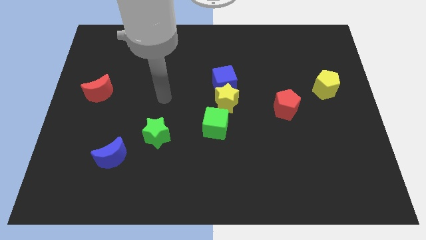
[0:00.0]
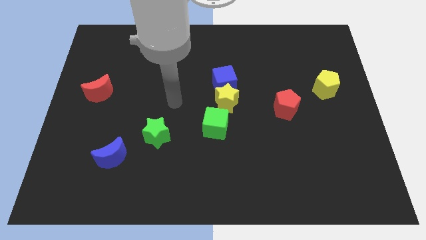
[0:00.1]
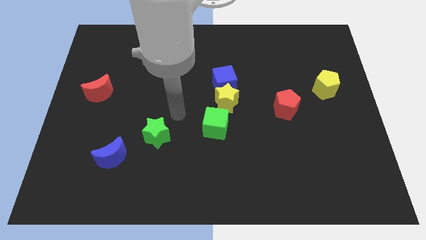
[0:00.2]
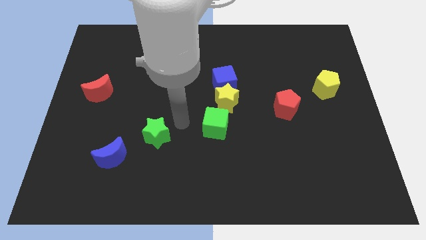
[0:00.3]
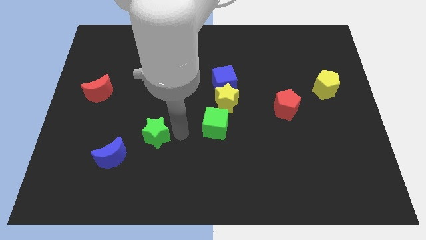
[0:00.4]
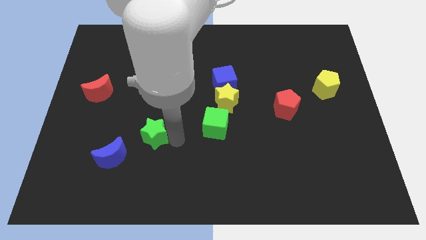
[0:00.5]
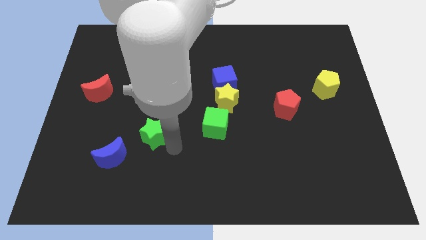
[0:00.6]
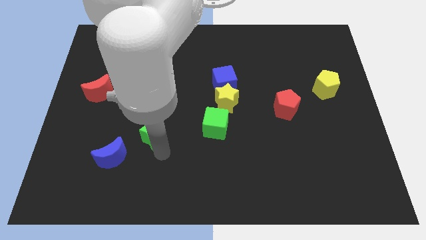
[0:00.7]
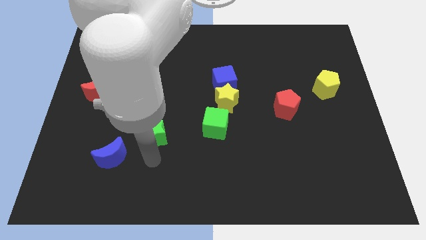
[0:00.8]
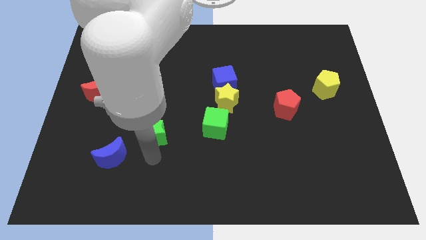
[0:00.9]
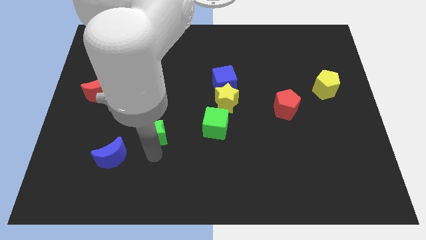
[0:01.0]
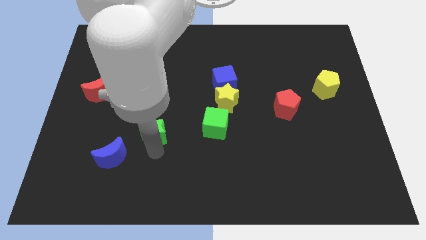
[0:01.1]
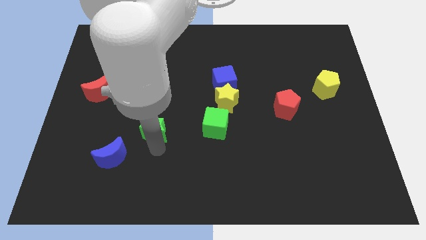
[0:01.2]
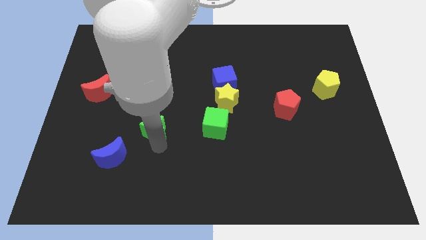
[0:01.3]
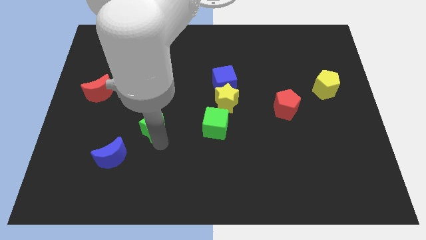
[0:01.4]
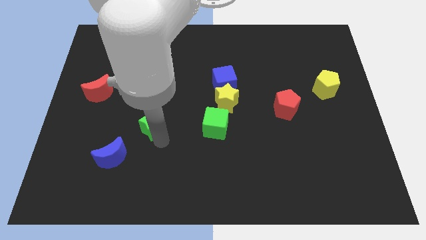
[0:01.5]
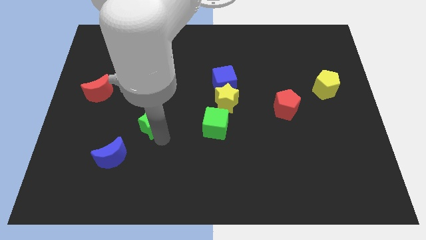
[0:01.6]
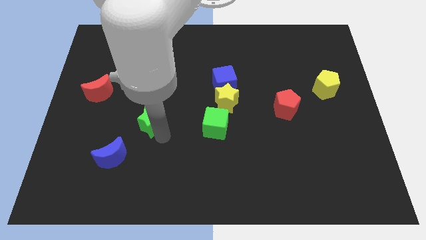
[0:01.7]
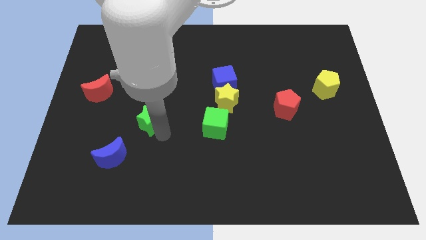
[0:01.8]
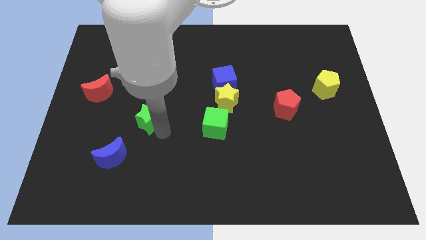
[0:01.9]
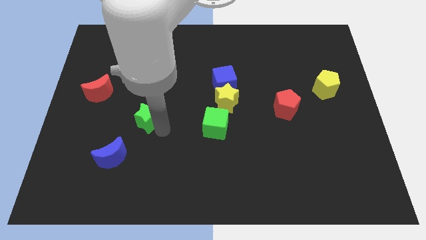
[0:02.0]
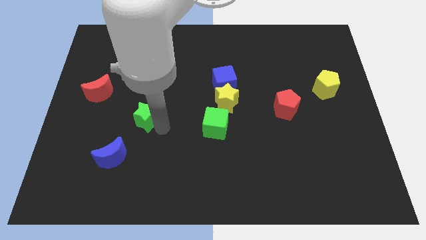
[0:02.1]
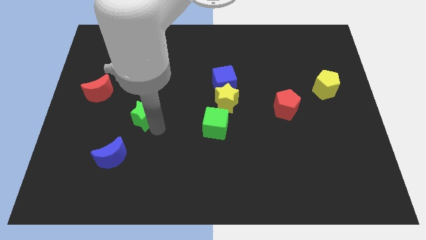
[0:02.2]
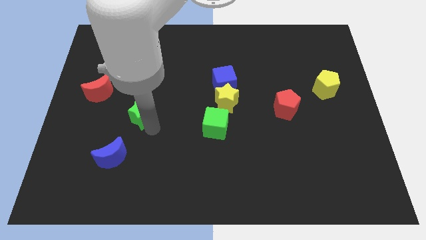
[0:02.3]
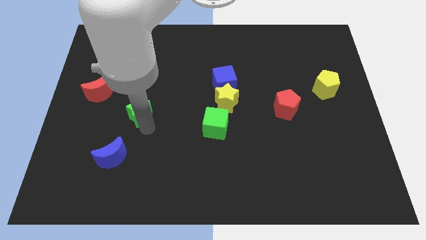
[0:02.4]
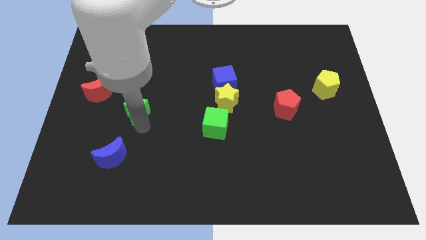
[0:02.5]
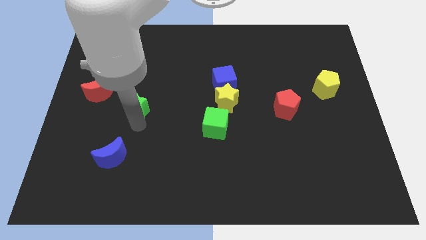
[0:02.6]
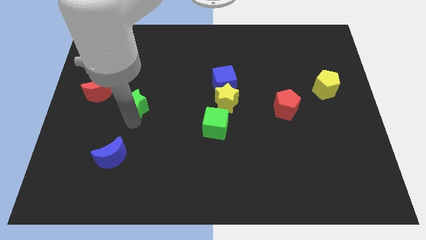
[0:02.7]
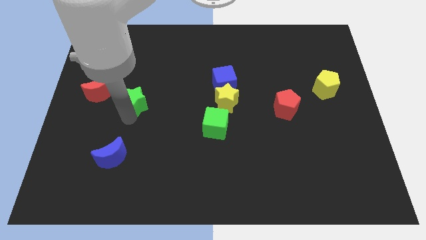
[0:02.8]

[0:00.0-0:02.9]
slide the green star up a little bit

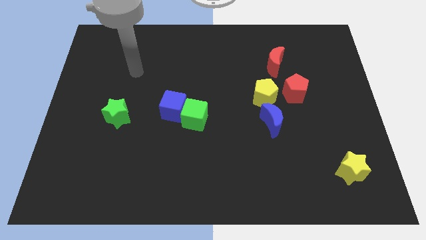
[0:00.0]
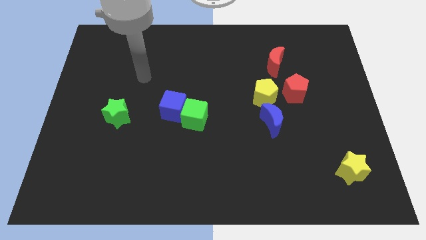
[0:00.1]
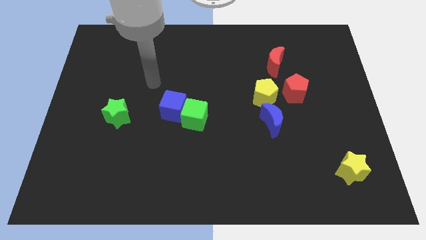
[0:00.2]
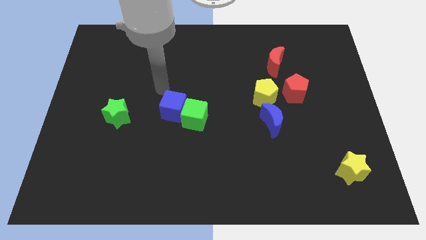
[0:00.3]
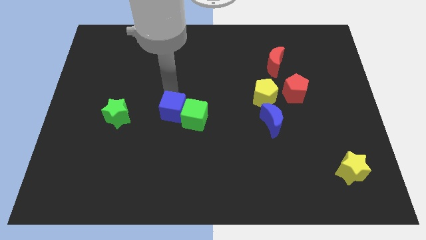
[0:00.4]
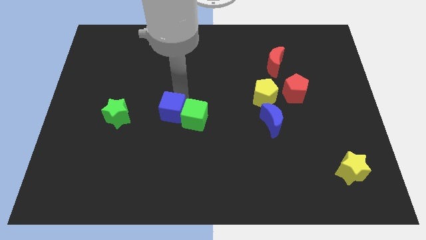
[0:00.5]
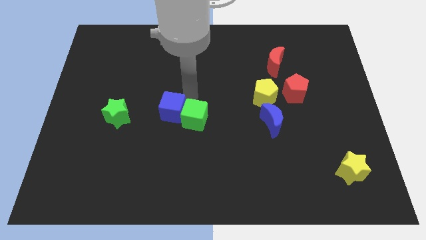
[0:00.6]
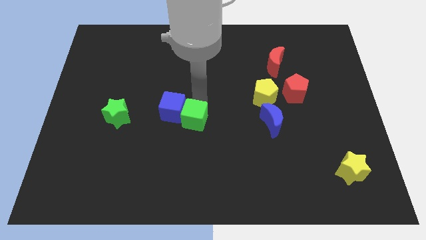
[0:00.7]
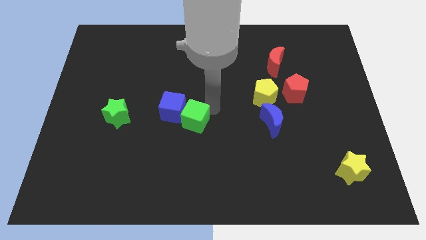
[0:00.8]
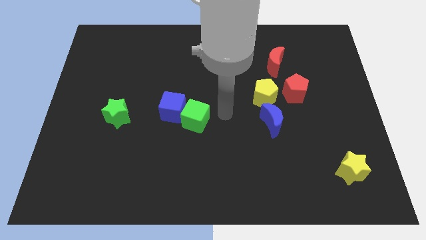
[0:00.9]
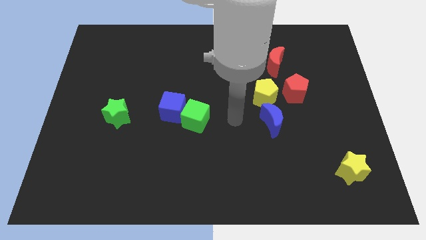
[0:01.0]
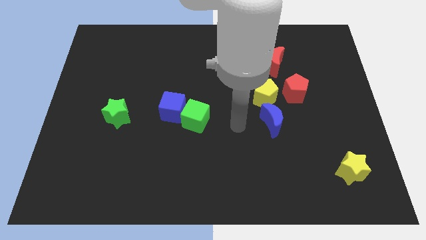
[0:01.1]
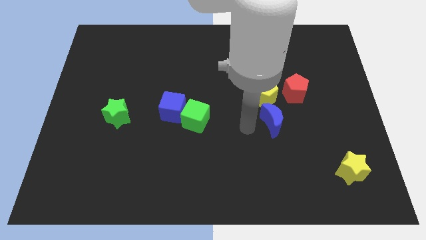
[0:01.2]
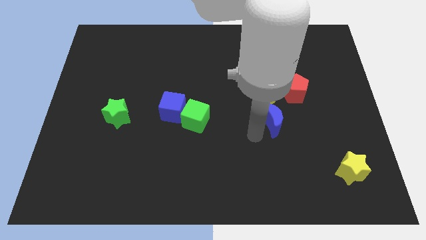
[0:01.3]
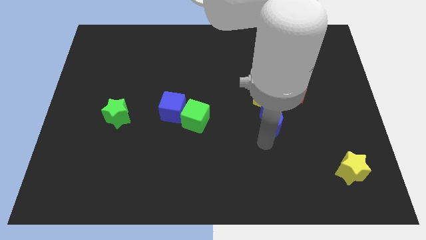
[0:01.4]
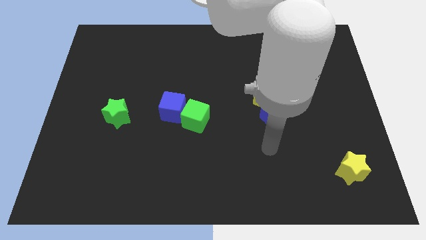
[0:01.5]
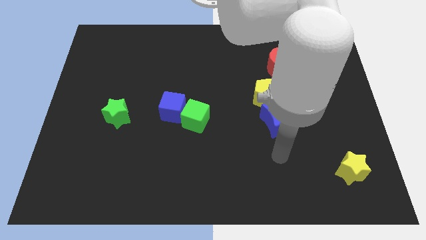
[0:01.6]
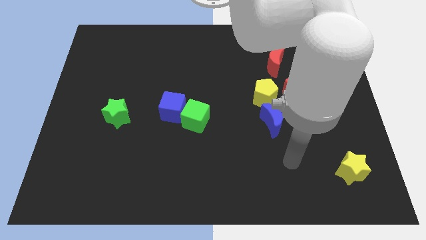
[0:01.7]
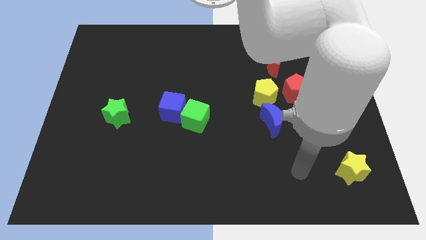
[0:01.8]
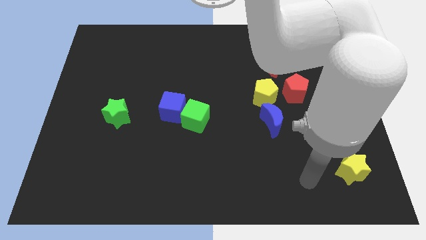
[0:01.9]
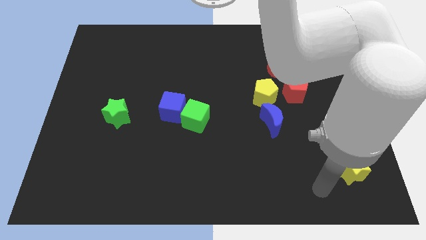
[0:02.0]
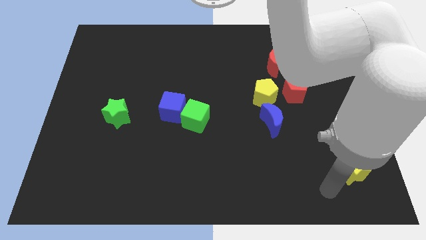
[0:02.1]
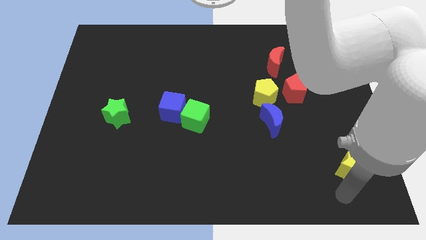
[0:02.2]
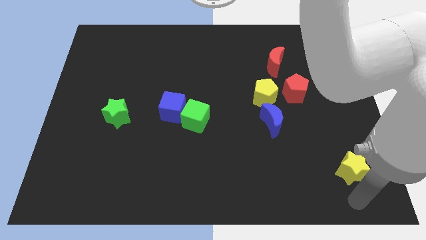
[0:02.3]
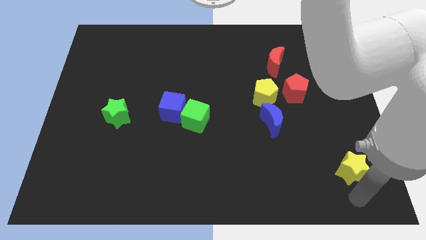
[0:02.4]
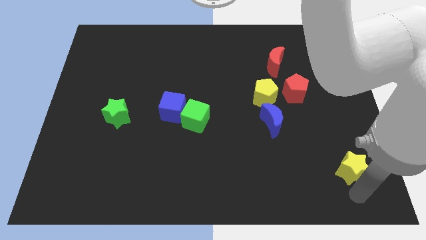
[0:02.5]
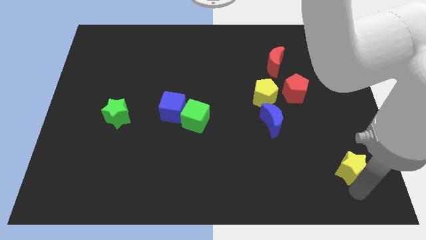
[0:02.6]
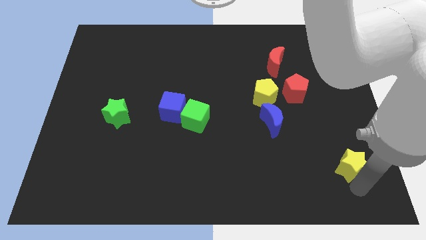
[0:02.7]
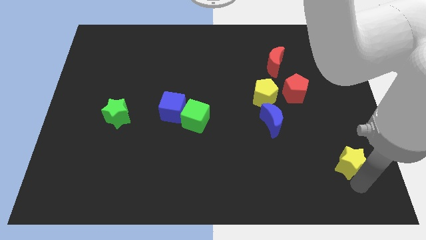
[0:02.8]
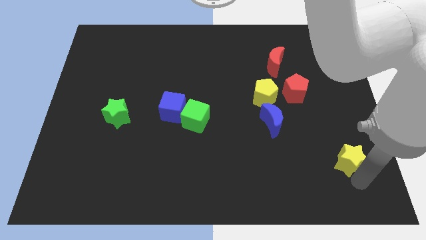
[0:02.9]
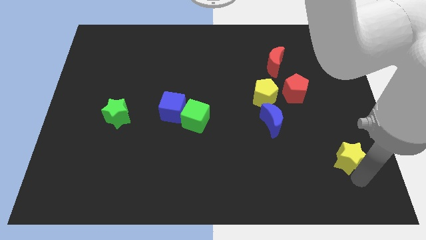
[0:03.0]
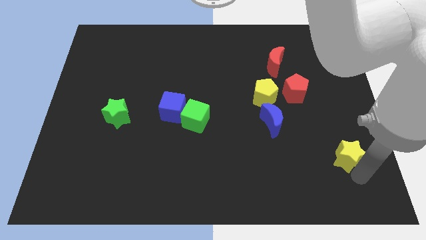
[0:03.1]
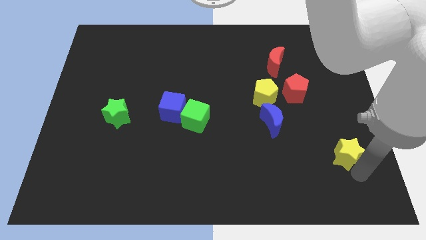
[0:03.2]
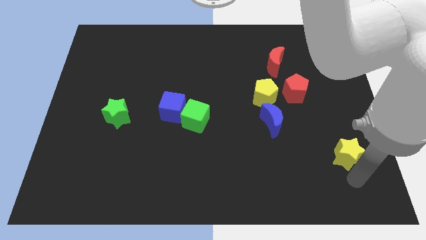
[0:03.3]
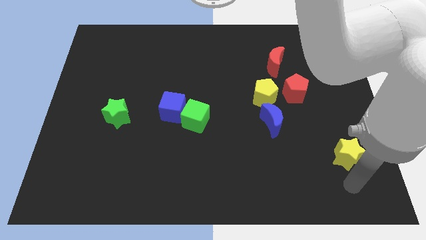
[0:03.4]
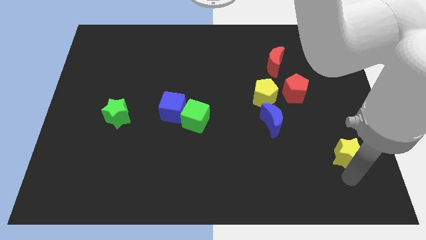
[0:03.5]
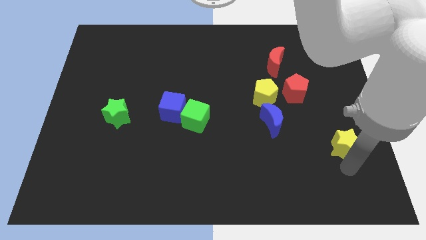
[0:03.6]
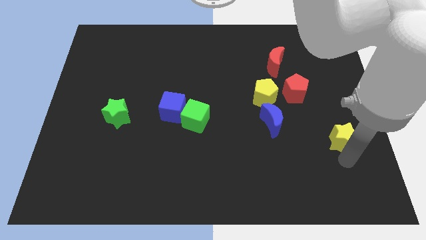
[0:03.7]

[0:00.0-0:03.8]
slide the yellow star up slightly

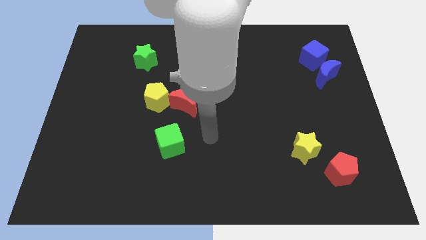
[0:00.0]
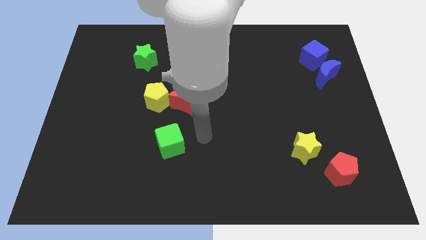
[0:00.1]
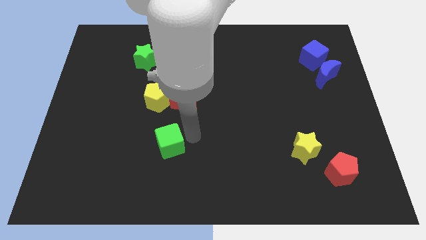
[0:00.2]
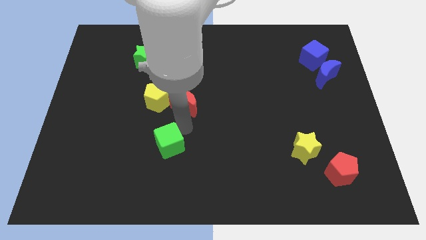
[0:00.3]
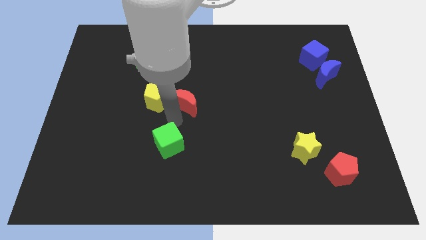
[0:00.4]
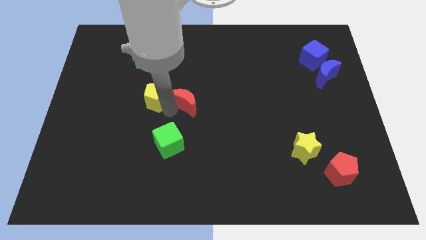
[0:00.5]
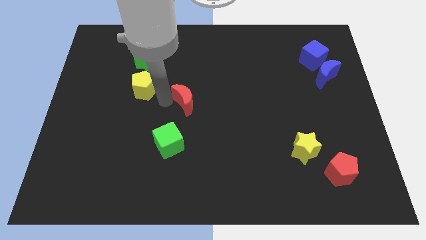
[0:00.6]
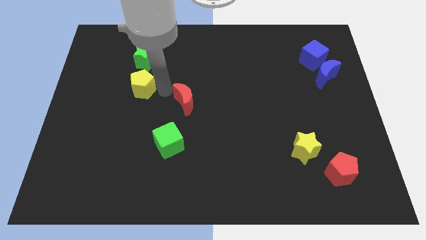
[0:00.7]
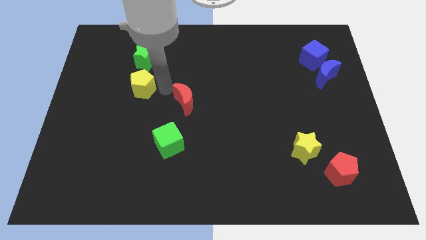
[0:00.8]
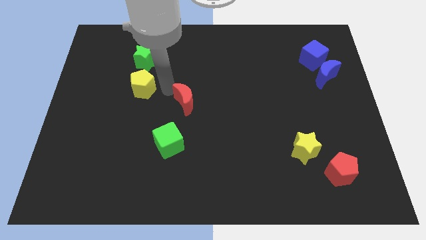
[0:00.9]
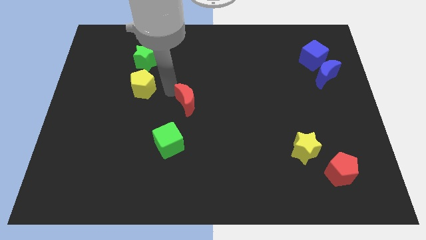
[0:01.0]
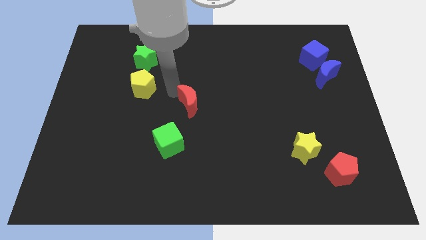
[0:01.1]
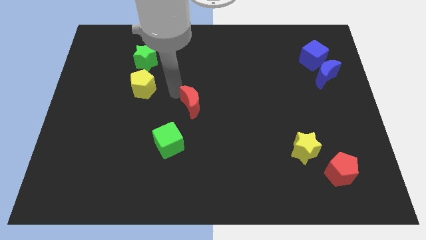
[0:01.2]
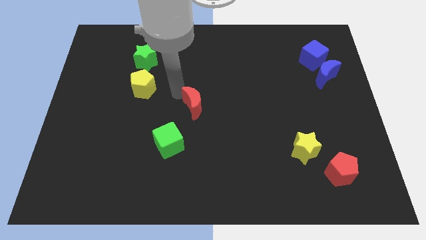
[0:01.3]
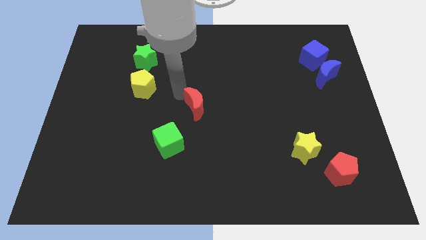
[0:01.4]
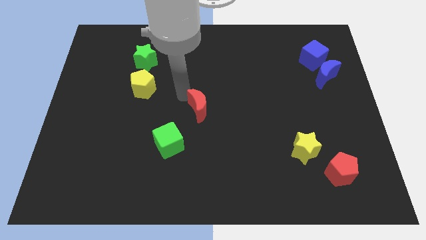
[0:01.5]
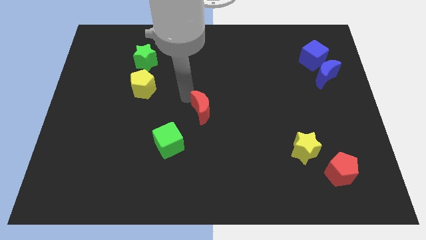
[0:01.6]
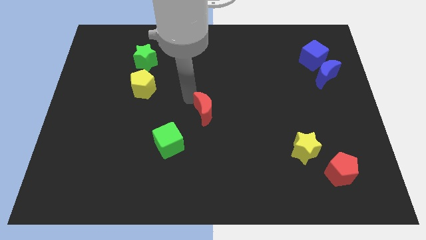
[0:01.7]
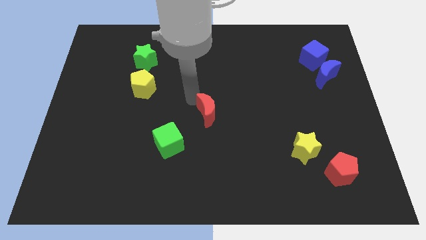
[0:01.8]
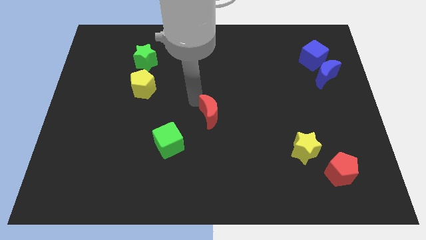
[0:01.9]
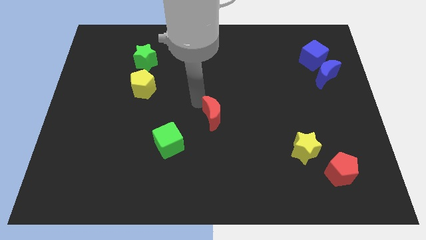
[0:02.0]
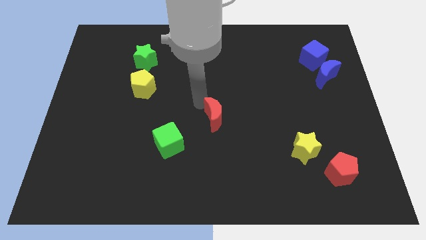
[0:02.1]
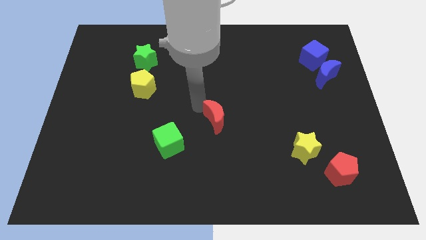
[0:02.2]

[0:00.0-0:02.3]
slightly move the red moon right
